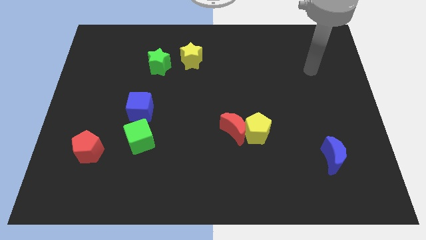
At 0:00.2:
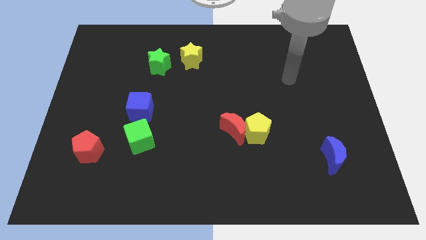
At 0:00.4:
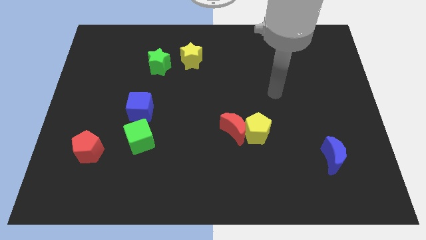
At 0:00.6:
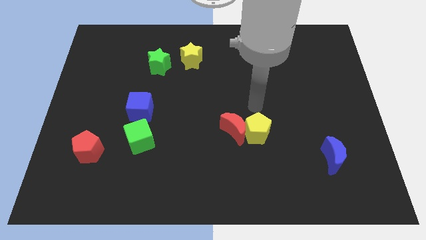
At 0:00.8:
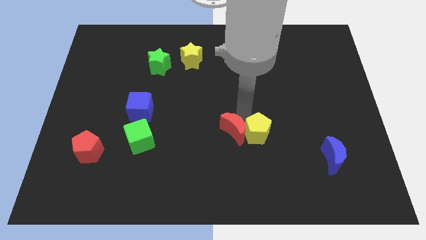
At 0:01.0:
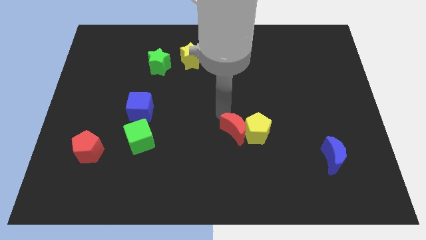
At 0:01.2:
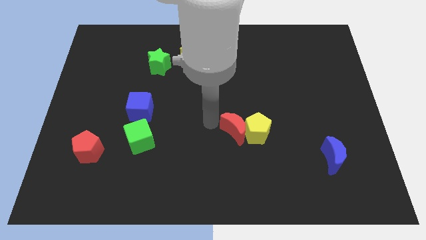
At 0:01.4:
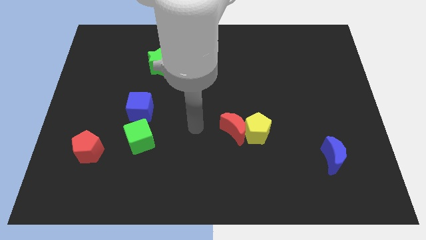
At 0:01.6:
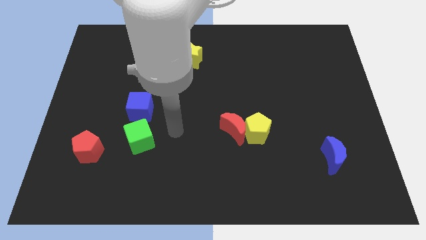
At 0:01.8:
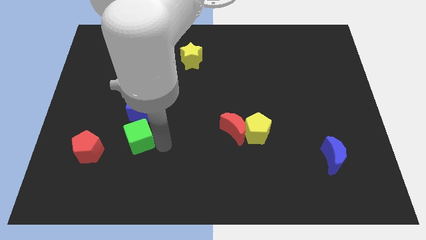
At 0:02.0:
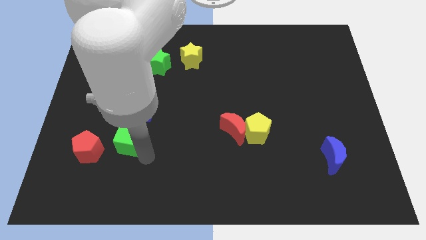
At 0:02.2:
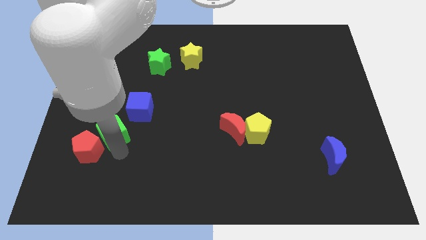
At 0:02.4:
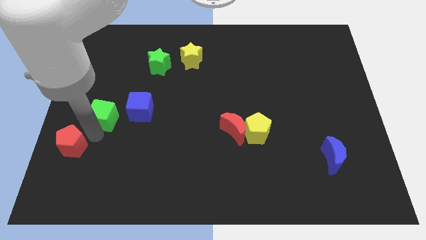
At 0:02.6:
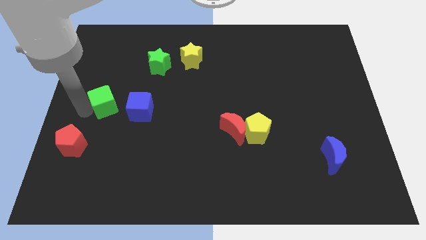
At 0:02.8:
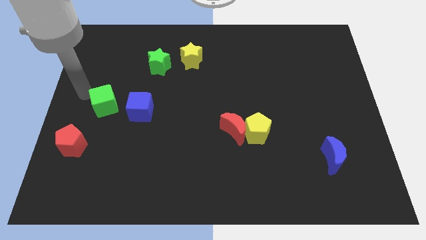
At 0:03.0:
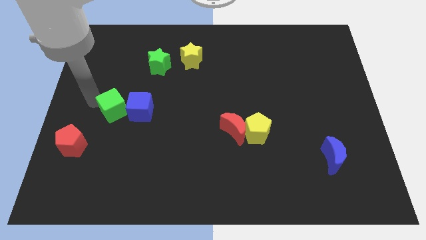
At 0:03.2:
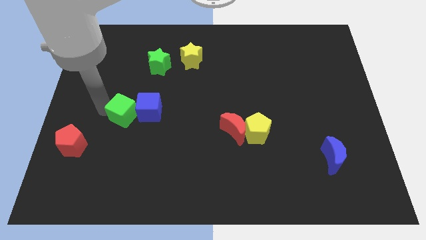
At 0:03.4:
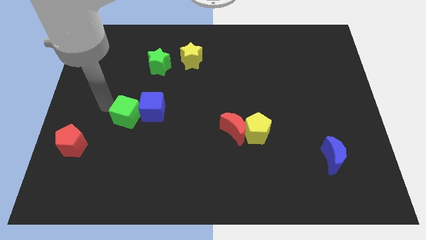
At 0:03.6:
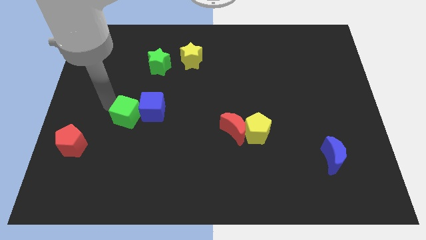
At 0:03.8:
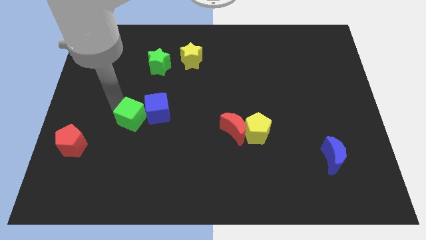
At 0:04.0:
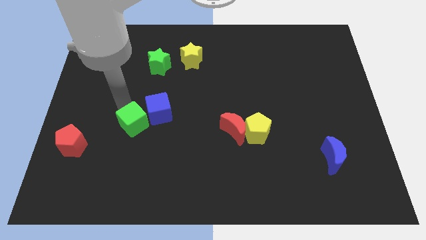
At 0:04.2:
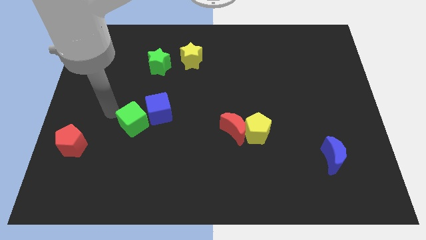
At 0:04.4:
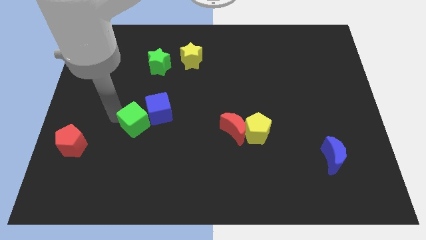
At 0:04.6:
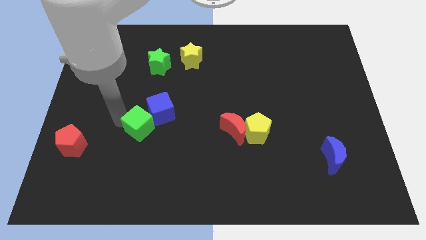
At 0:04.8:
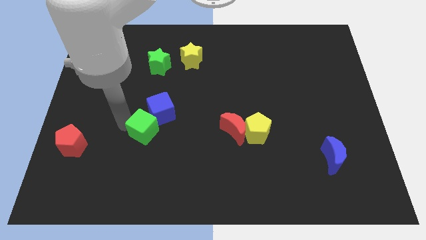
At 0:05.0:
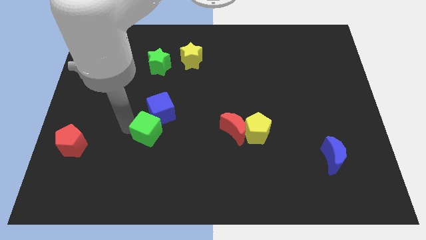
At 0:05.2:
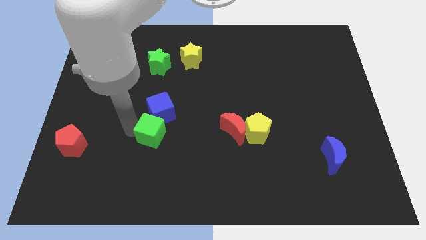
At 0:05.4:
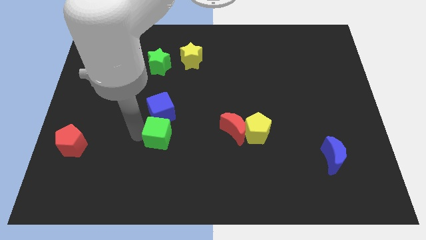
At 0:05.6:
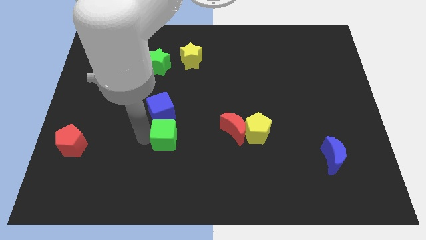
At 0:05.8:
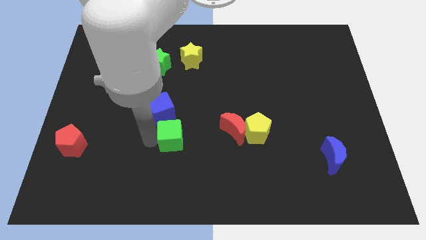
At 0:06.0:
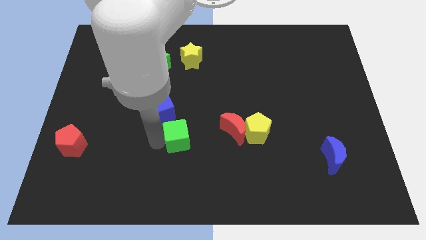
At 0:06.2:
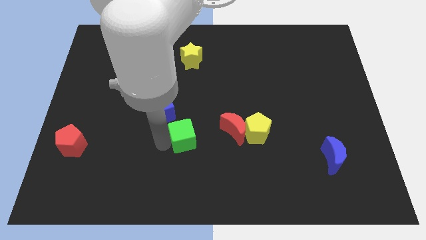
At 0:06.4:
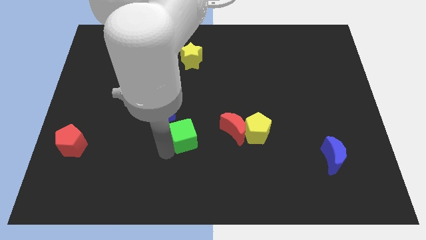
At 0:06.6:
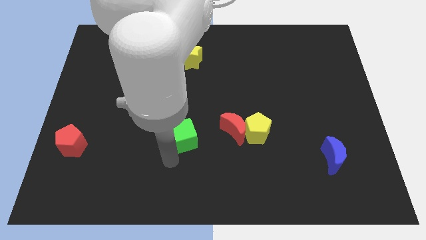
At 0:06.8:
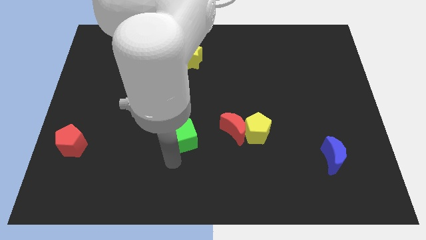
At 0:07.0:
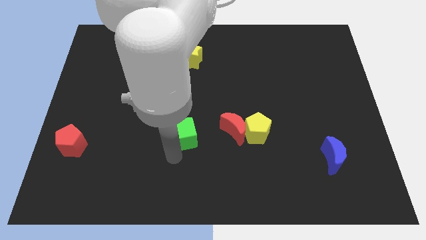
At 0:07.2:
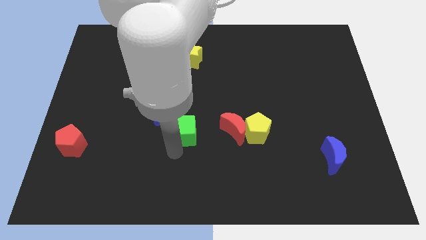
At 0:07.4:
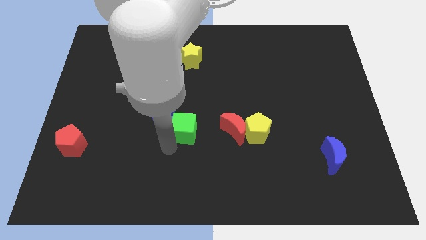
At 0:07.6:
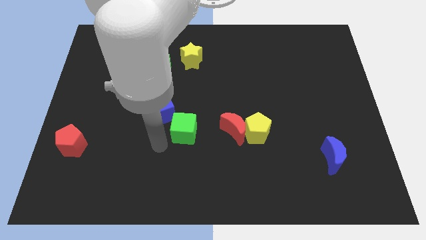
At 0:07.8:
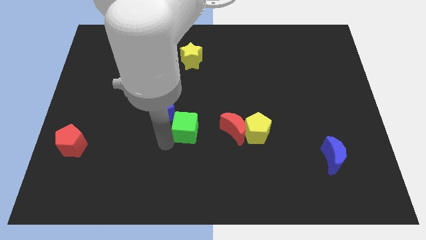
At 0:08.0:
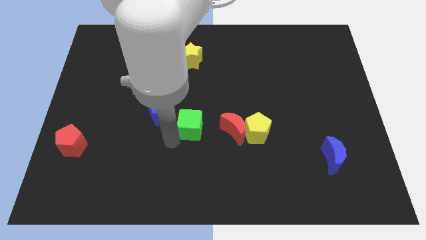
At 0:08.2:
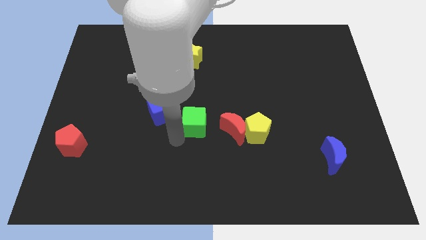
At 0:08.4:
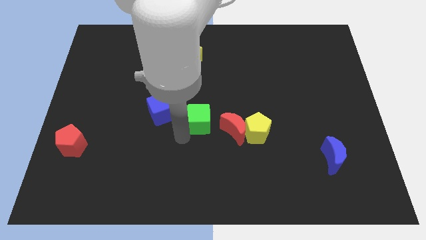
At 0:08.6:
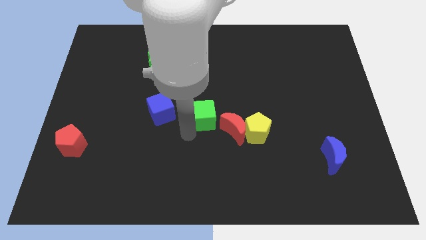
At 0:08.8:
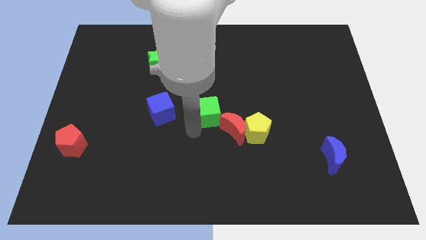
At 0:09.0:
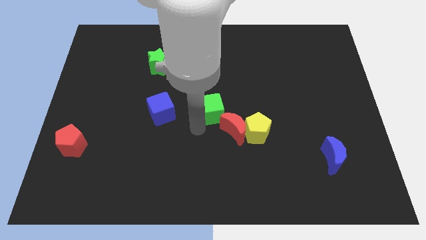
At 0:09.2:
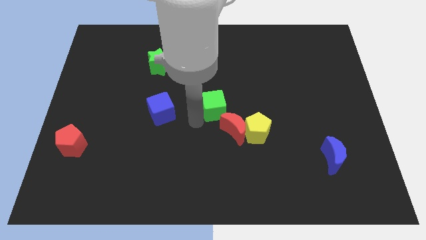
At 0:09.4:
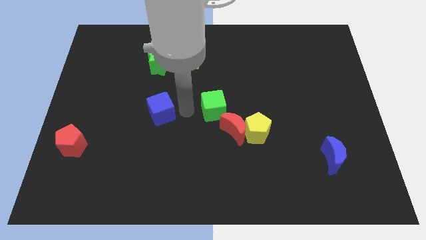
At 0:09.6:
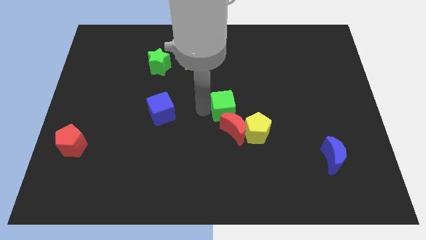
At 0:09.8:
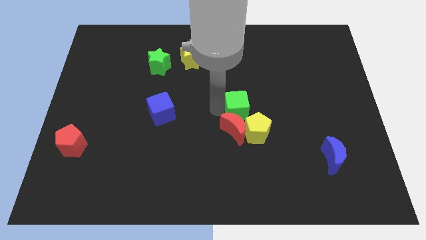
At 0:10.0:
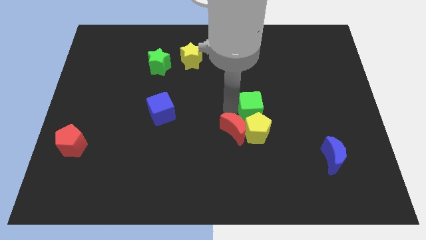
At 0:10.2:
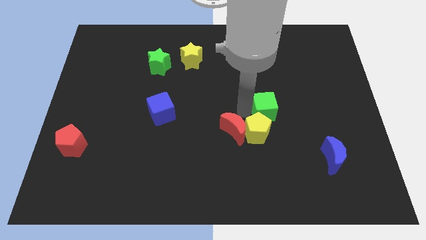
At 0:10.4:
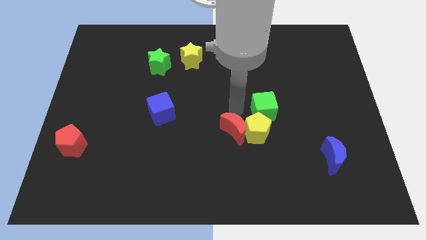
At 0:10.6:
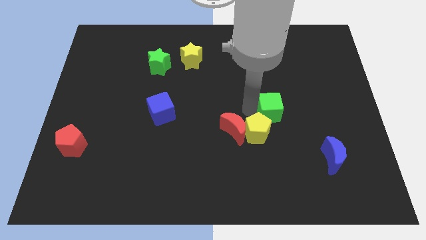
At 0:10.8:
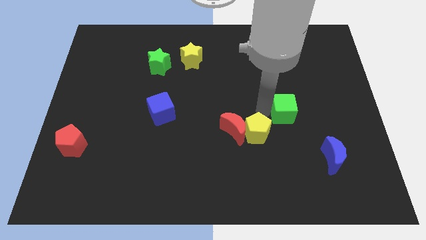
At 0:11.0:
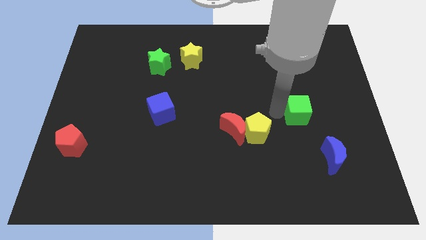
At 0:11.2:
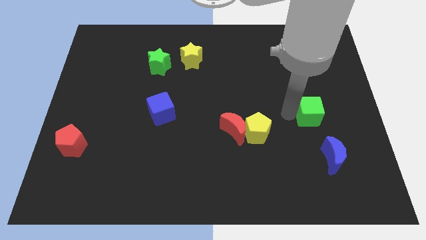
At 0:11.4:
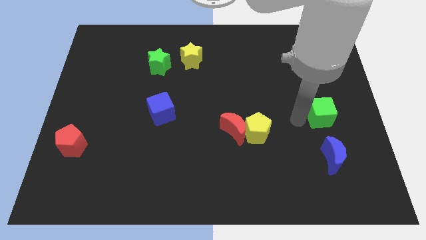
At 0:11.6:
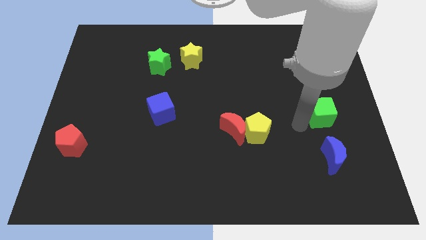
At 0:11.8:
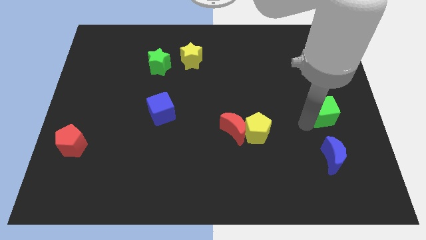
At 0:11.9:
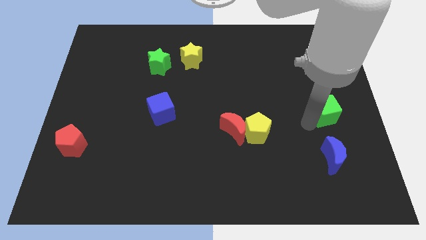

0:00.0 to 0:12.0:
slide the green cube to the right side of the board
